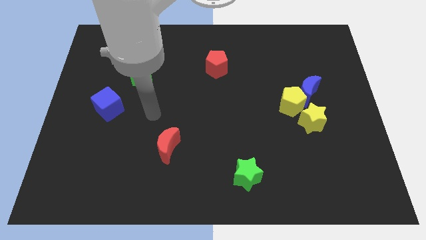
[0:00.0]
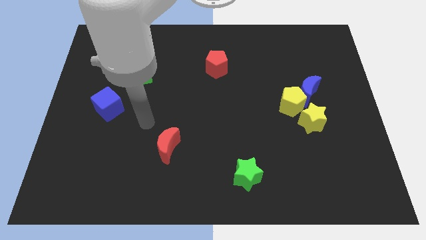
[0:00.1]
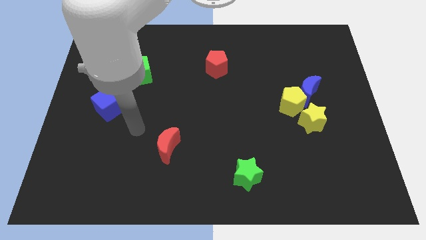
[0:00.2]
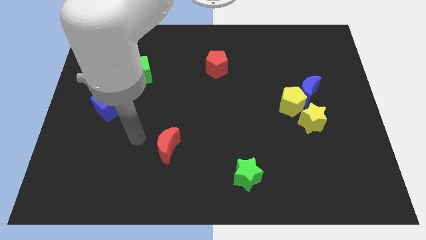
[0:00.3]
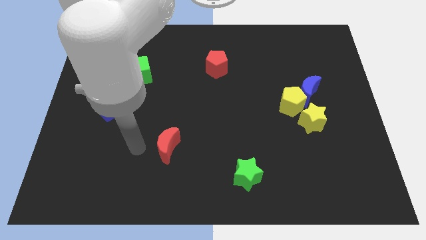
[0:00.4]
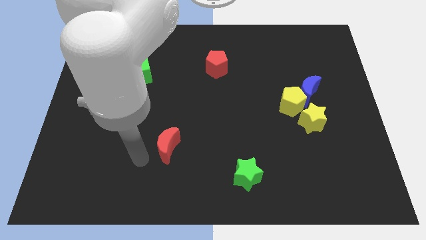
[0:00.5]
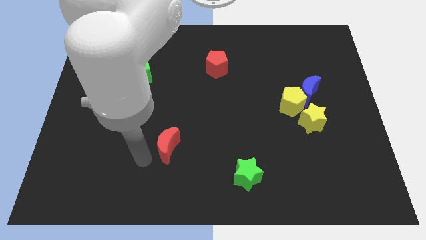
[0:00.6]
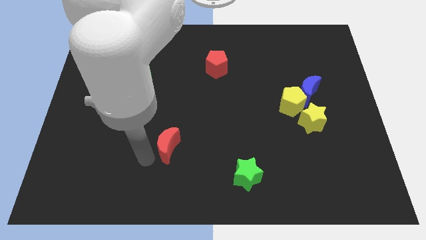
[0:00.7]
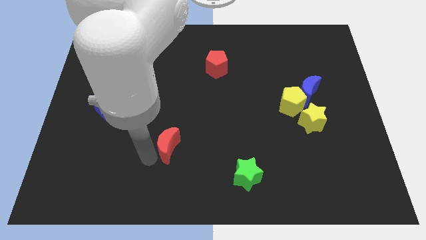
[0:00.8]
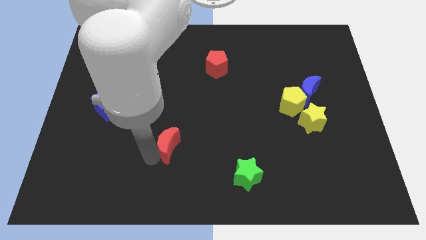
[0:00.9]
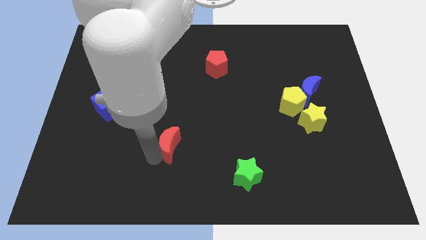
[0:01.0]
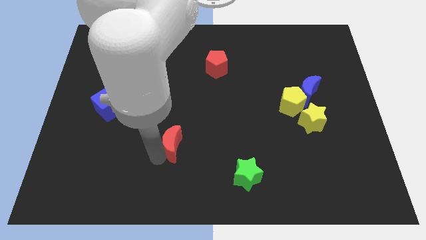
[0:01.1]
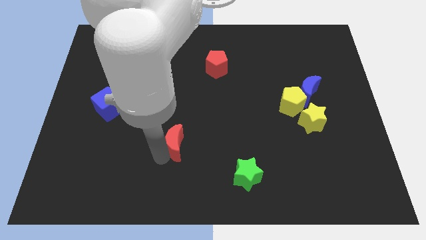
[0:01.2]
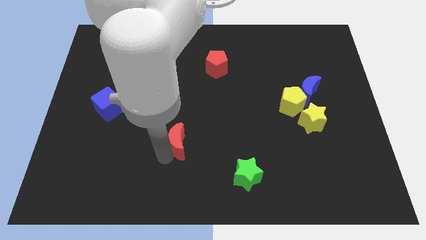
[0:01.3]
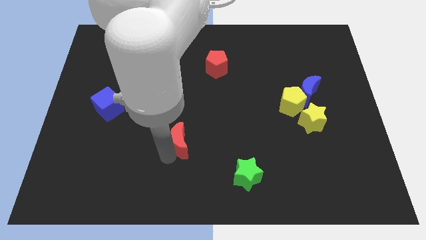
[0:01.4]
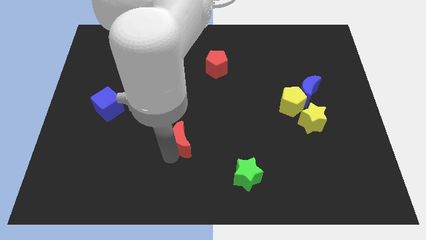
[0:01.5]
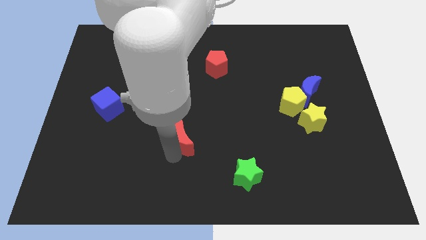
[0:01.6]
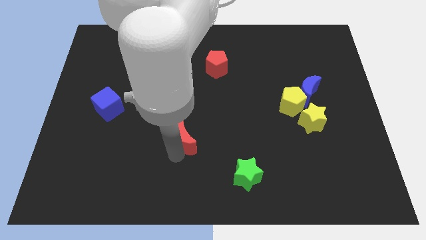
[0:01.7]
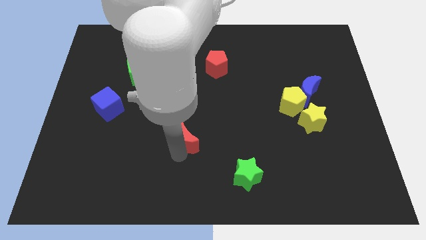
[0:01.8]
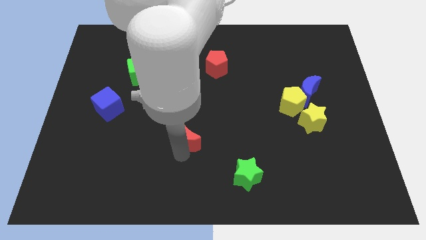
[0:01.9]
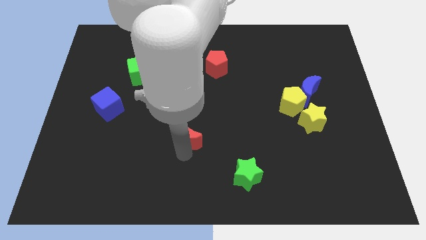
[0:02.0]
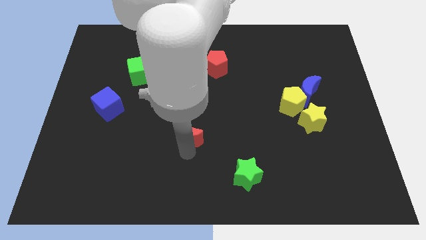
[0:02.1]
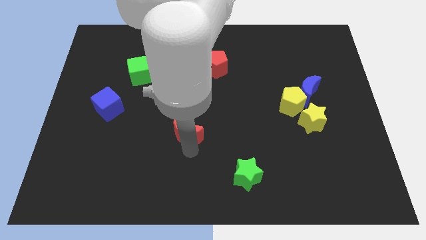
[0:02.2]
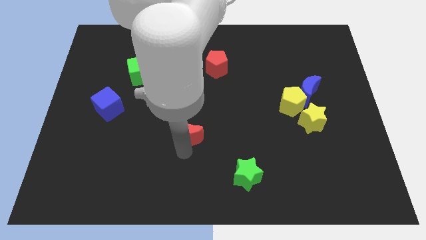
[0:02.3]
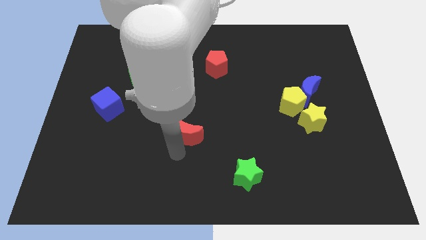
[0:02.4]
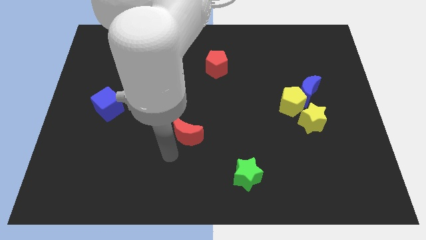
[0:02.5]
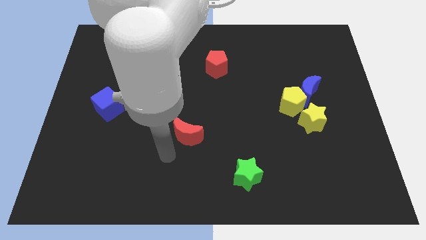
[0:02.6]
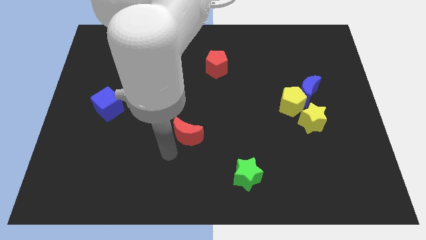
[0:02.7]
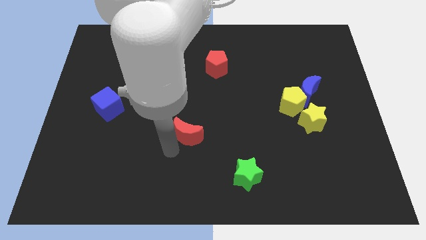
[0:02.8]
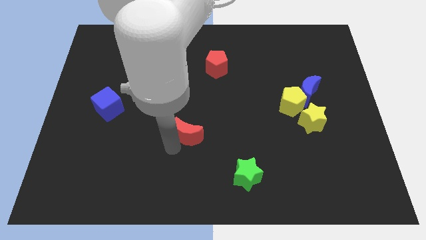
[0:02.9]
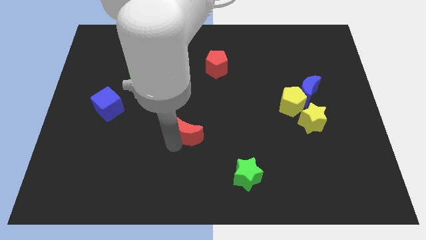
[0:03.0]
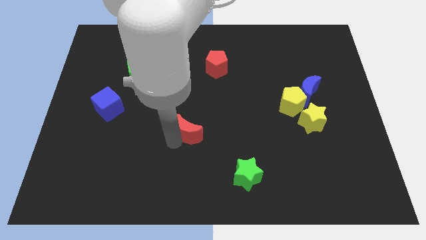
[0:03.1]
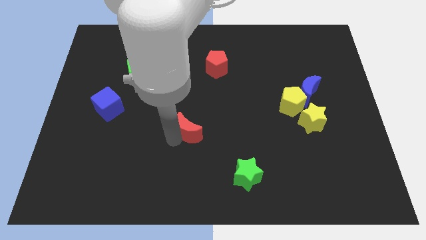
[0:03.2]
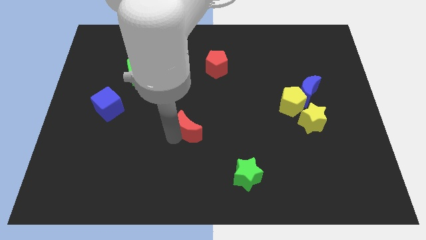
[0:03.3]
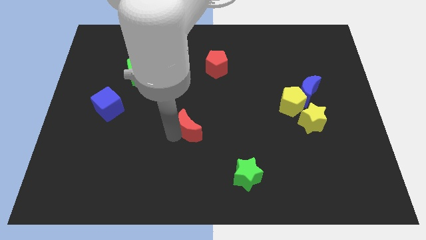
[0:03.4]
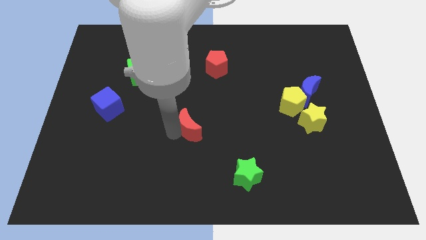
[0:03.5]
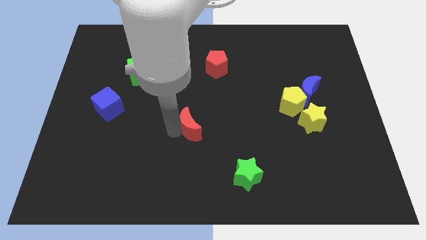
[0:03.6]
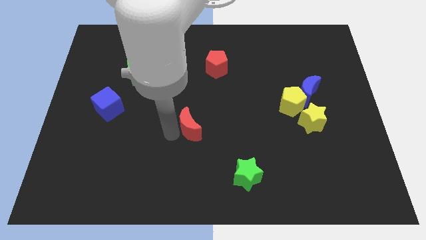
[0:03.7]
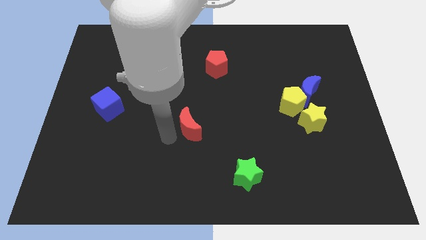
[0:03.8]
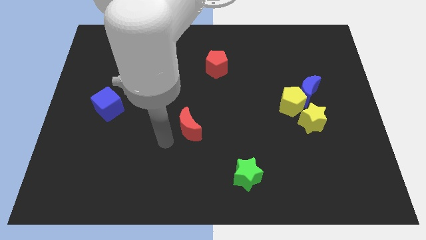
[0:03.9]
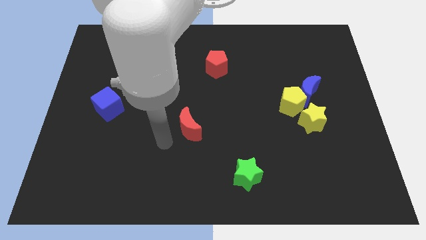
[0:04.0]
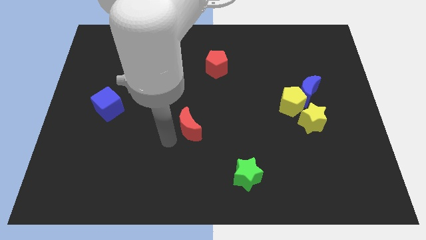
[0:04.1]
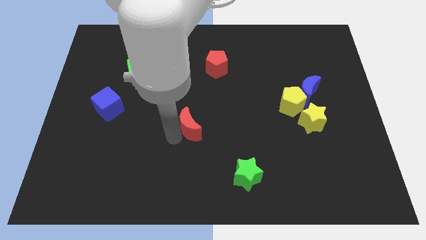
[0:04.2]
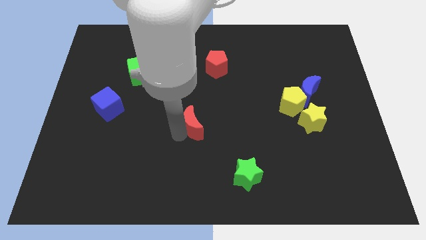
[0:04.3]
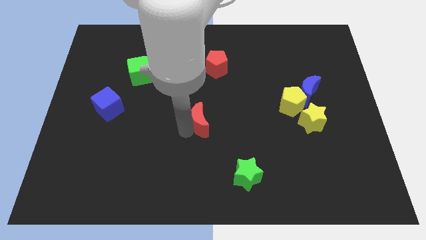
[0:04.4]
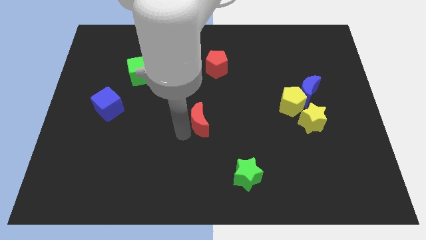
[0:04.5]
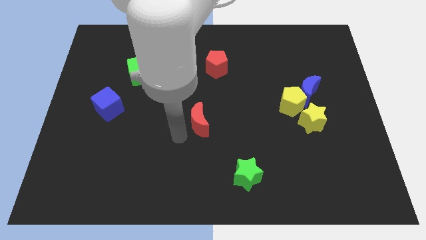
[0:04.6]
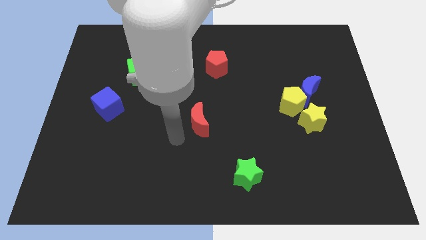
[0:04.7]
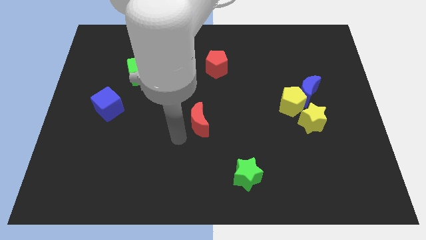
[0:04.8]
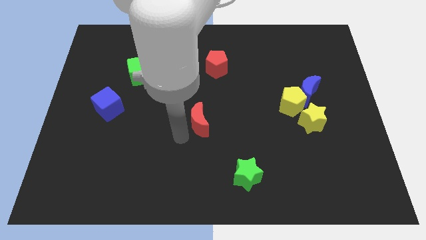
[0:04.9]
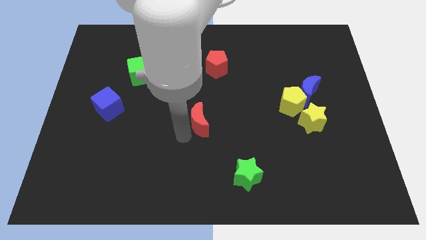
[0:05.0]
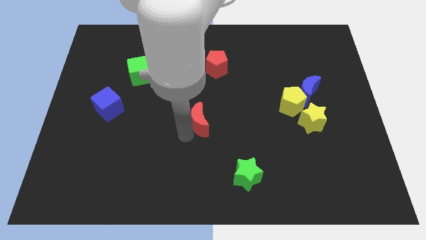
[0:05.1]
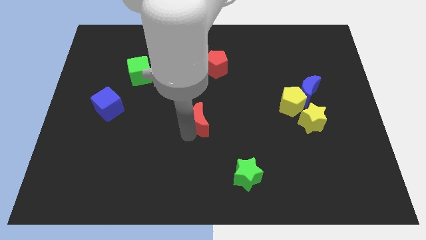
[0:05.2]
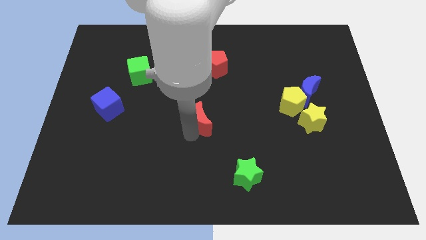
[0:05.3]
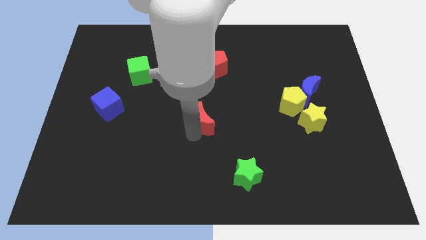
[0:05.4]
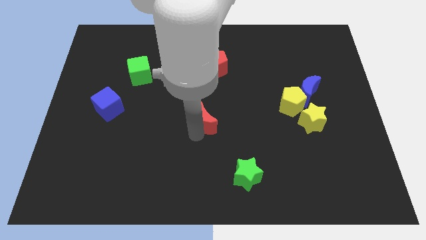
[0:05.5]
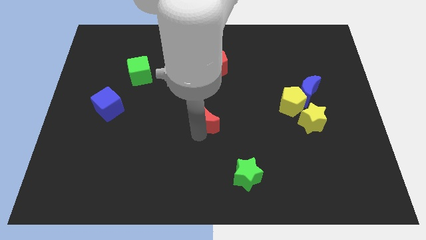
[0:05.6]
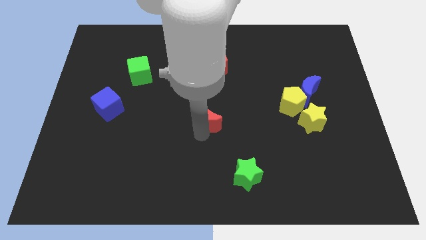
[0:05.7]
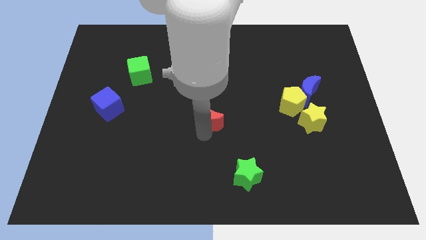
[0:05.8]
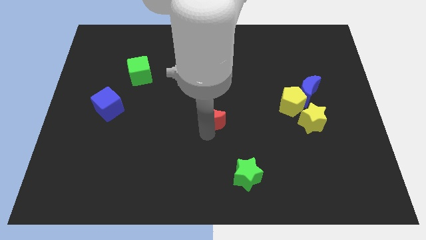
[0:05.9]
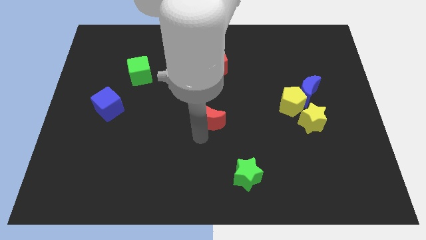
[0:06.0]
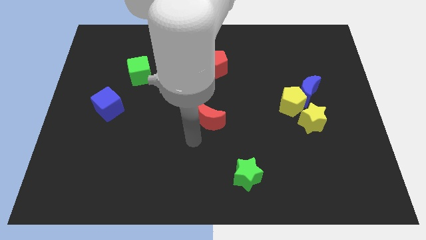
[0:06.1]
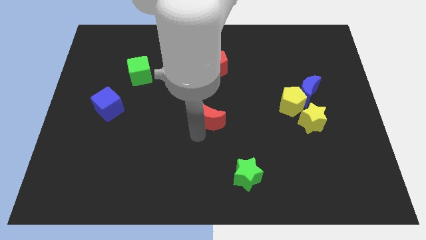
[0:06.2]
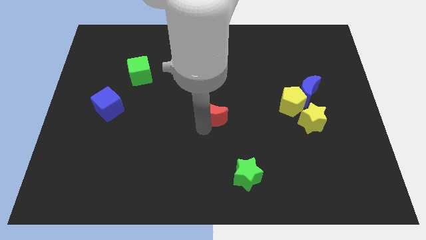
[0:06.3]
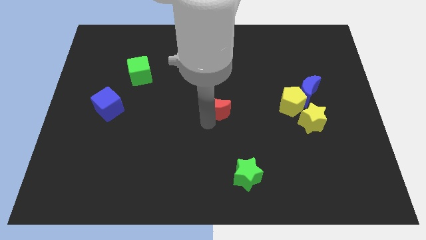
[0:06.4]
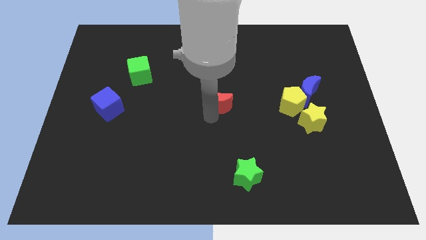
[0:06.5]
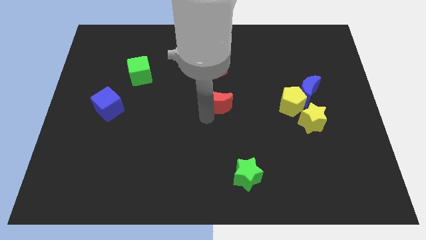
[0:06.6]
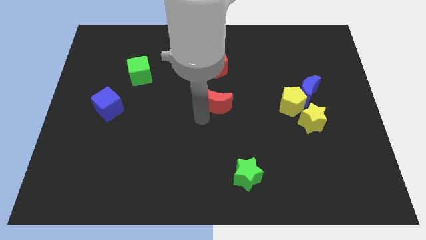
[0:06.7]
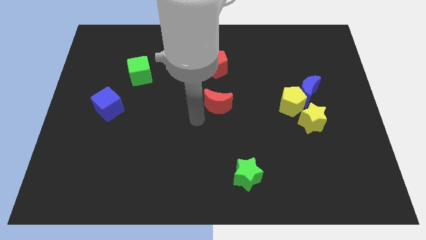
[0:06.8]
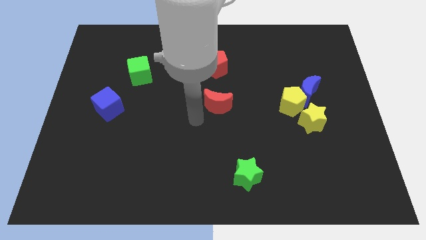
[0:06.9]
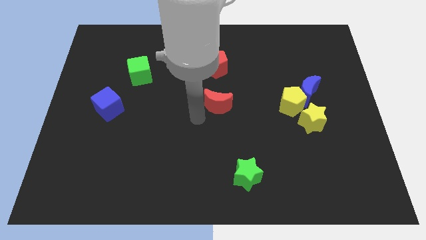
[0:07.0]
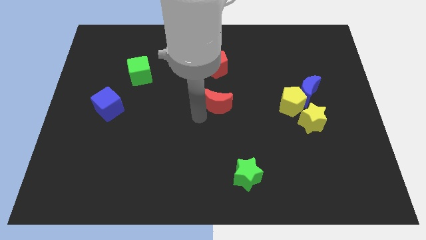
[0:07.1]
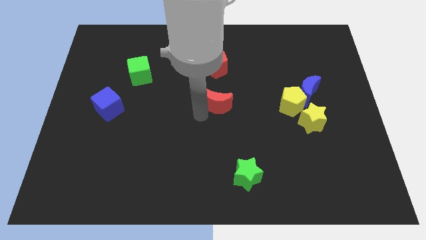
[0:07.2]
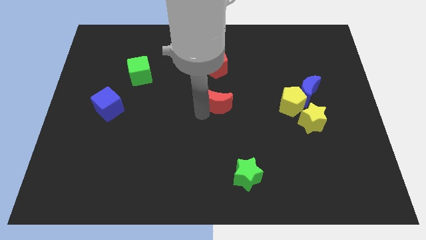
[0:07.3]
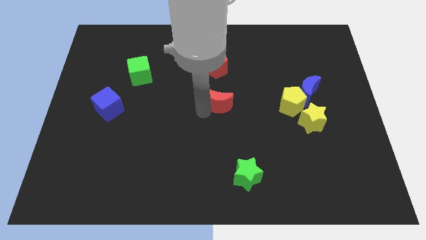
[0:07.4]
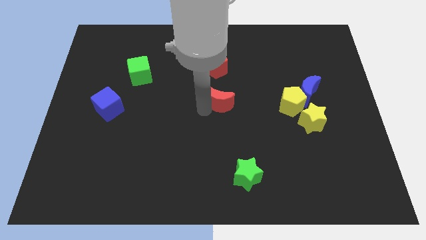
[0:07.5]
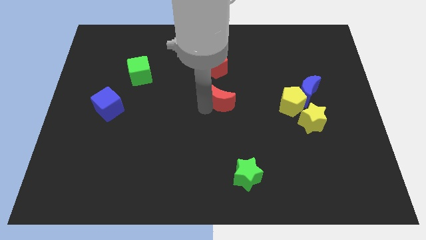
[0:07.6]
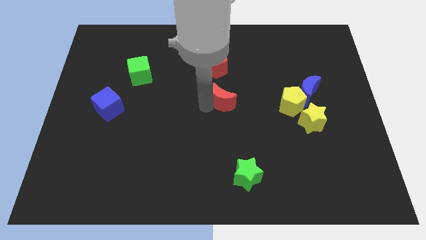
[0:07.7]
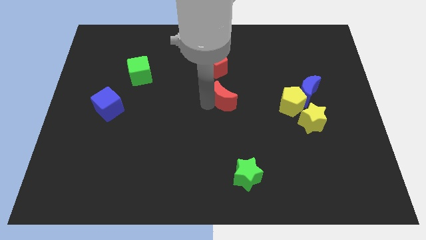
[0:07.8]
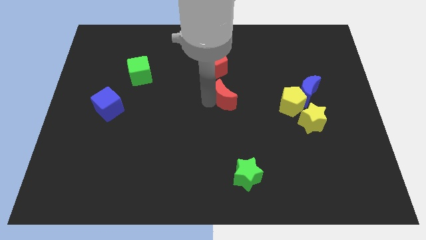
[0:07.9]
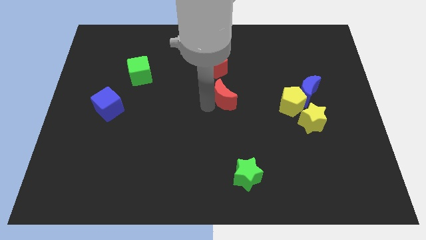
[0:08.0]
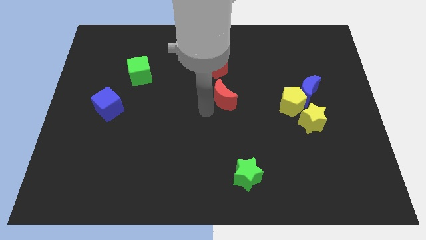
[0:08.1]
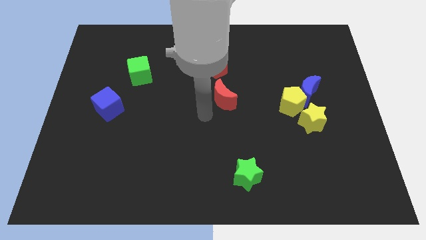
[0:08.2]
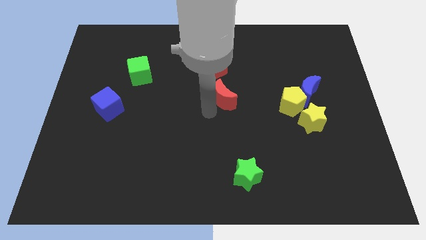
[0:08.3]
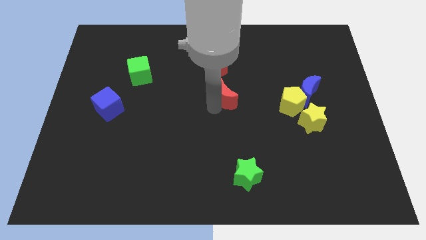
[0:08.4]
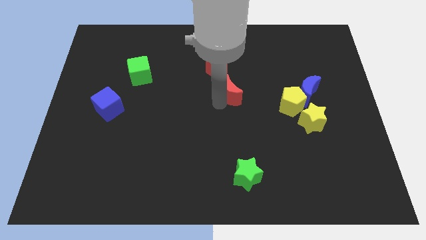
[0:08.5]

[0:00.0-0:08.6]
push the red moon up and to the right
